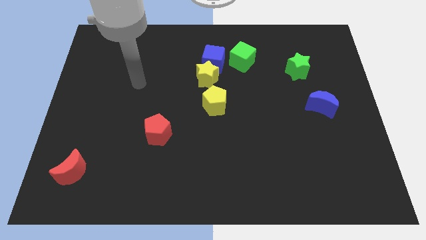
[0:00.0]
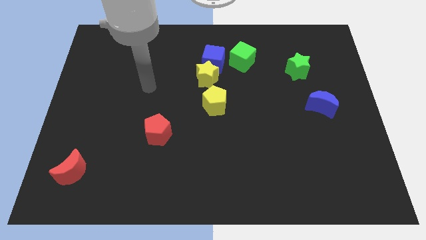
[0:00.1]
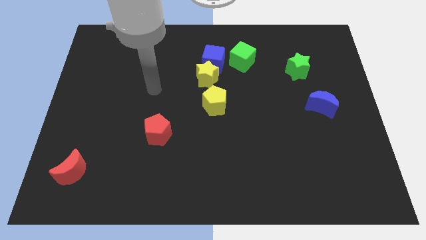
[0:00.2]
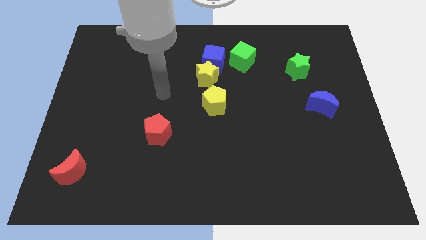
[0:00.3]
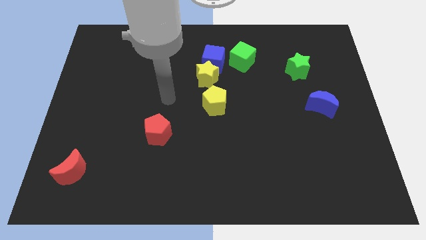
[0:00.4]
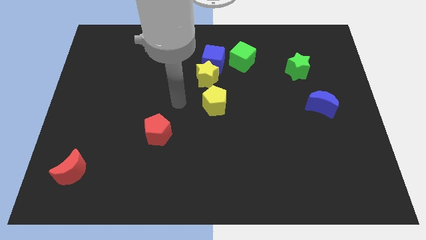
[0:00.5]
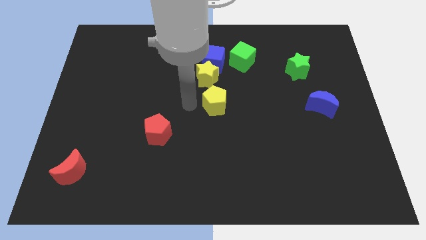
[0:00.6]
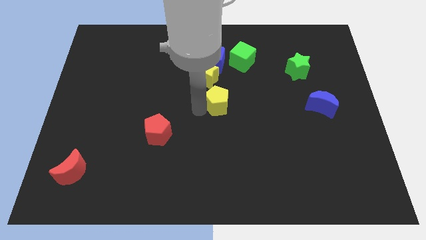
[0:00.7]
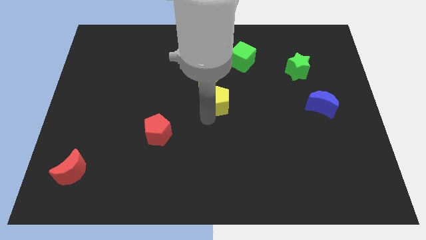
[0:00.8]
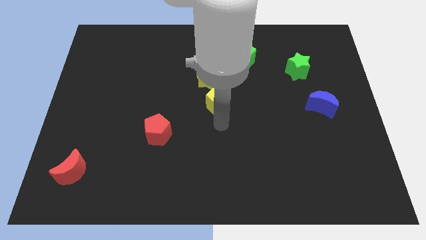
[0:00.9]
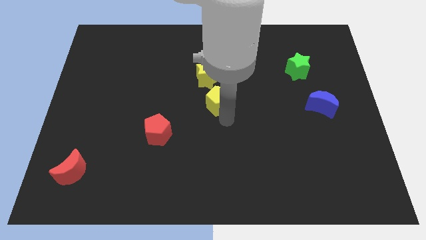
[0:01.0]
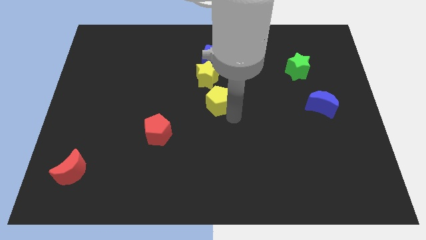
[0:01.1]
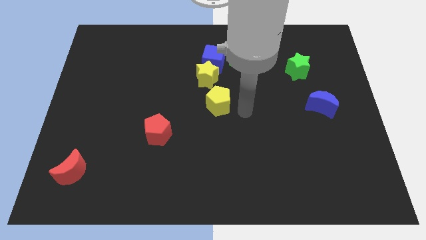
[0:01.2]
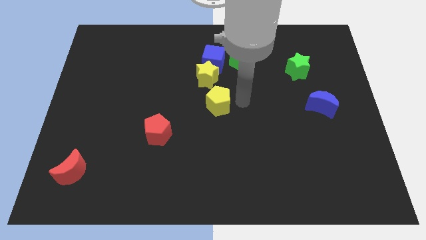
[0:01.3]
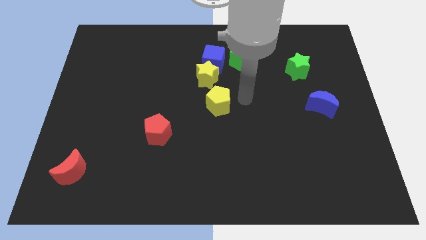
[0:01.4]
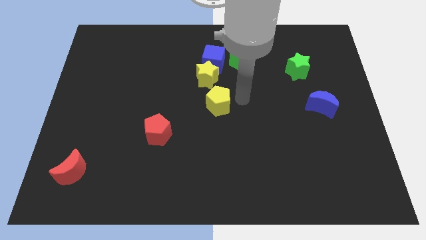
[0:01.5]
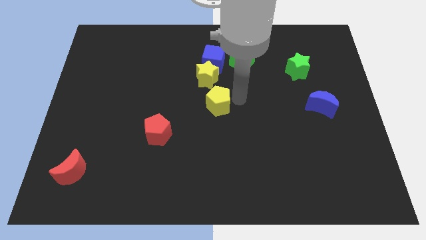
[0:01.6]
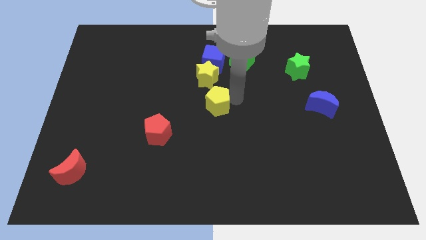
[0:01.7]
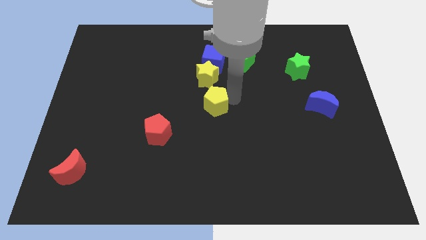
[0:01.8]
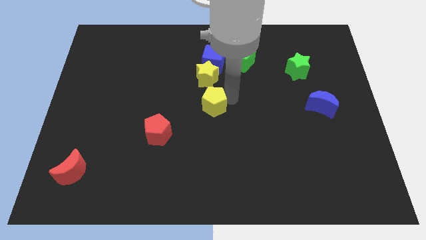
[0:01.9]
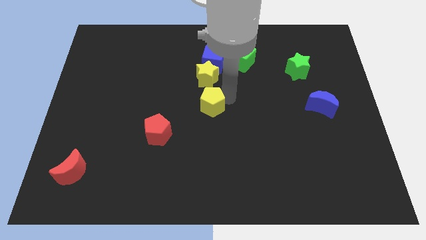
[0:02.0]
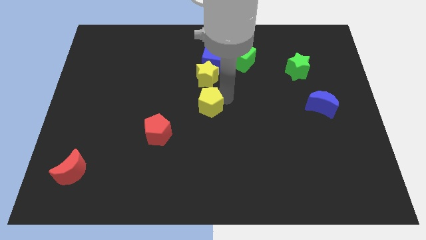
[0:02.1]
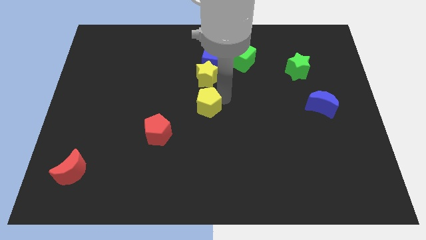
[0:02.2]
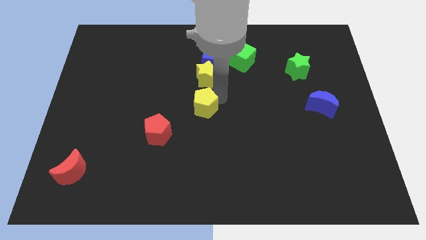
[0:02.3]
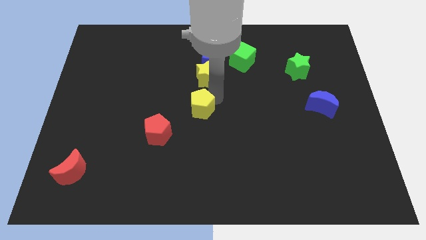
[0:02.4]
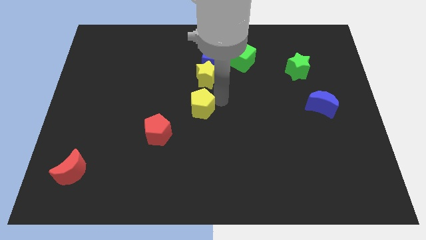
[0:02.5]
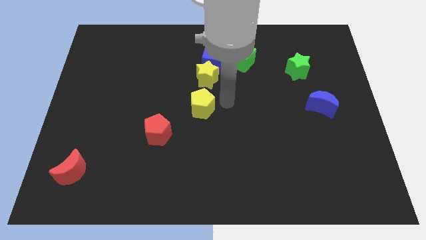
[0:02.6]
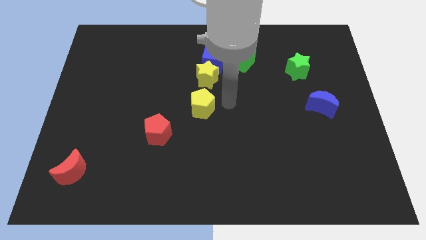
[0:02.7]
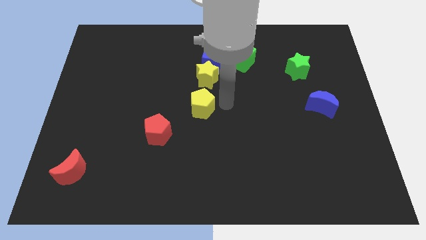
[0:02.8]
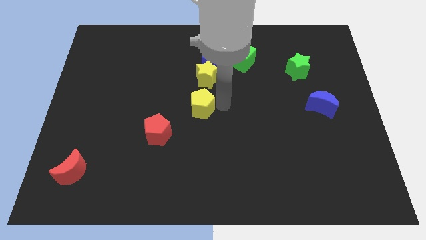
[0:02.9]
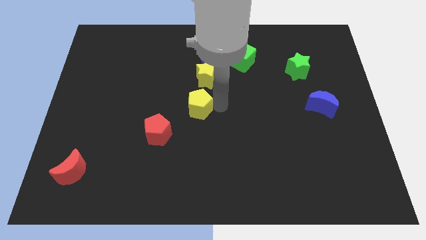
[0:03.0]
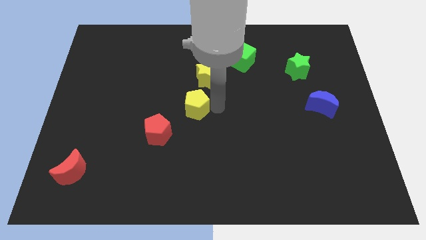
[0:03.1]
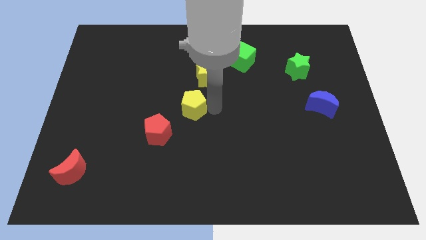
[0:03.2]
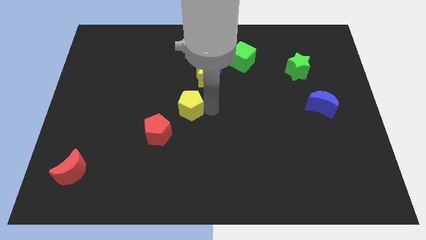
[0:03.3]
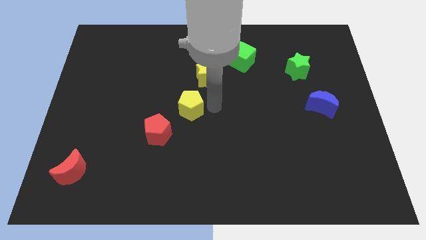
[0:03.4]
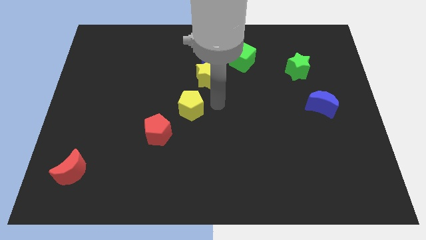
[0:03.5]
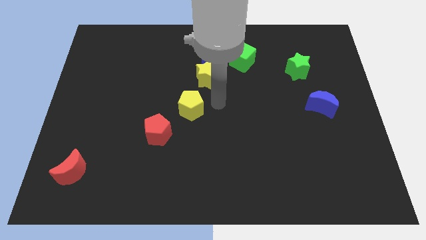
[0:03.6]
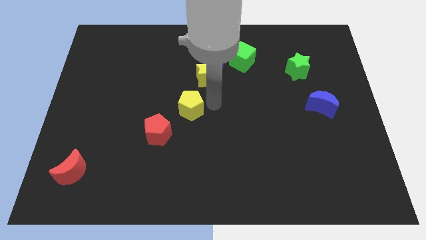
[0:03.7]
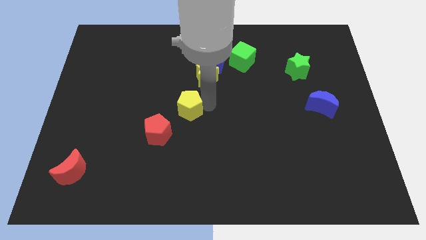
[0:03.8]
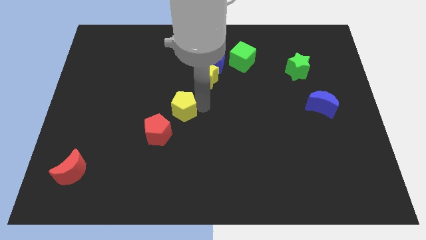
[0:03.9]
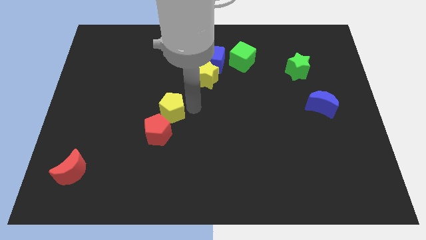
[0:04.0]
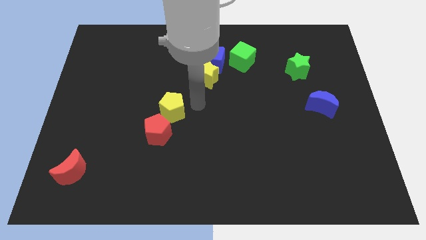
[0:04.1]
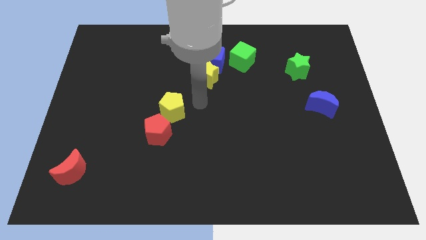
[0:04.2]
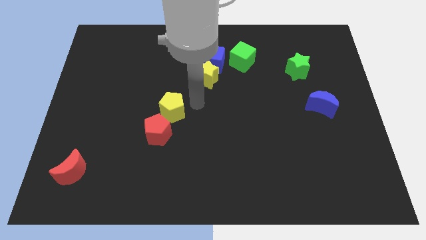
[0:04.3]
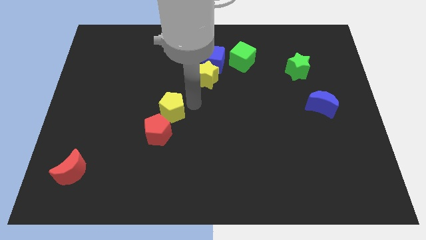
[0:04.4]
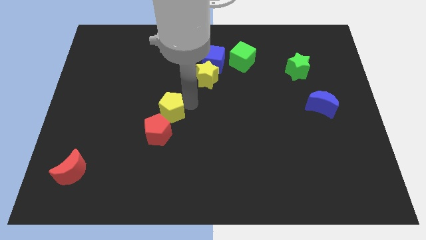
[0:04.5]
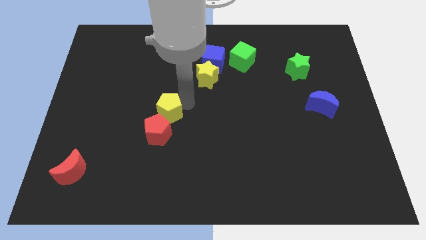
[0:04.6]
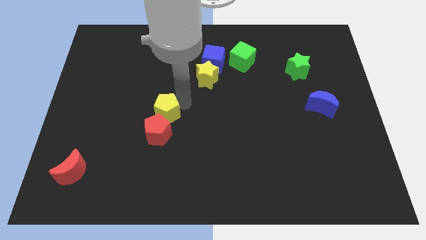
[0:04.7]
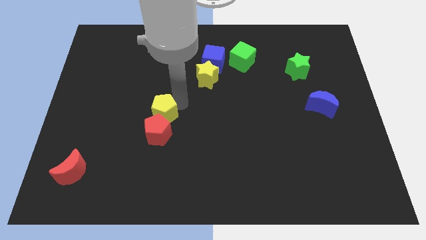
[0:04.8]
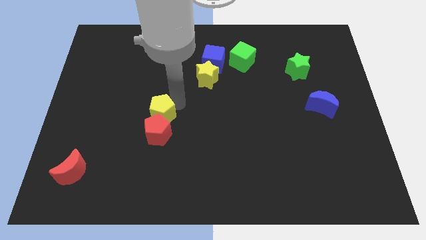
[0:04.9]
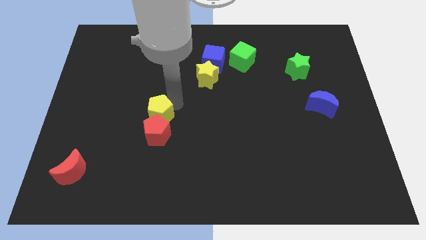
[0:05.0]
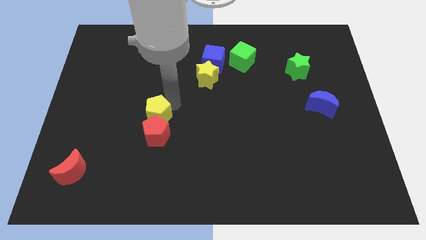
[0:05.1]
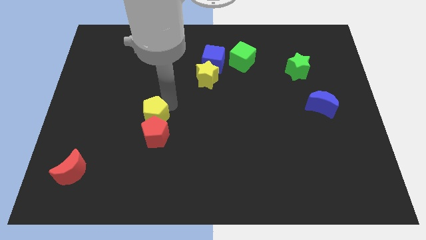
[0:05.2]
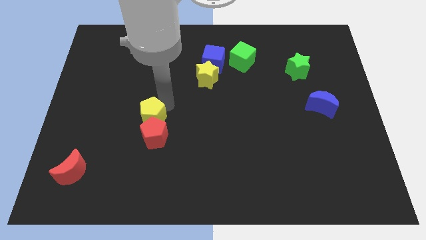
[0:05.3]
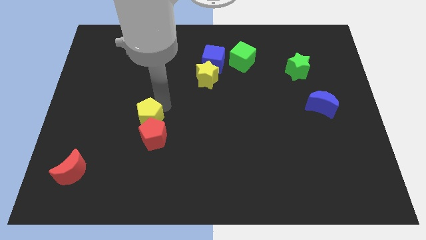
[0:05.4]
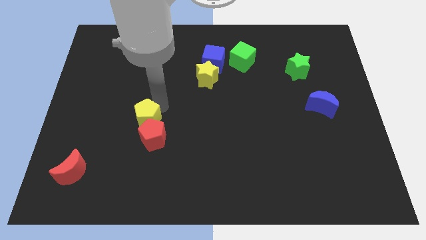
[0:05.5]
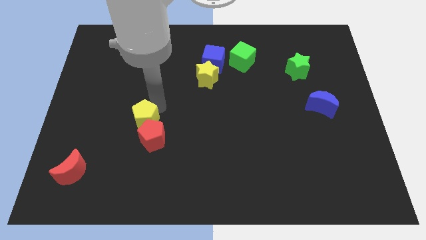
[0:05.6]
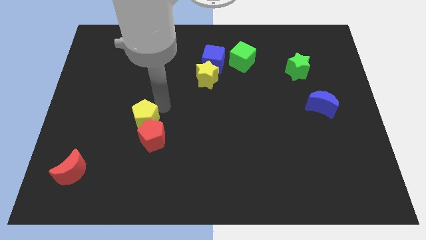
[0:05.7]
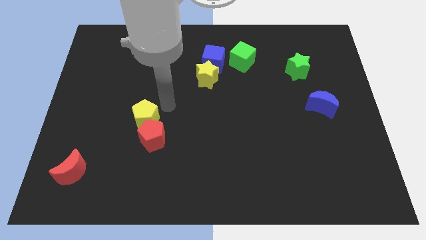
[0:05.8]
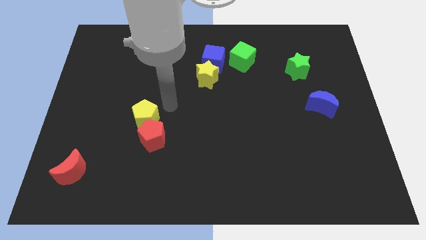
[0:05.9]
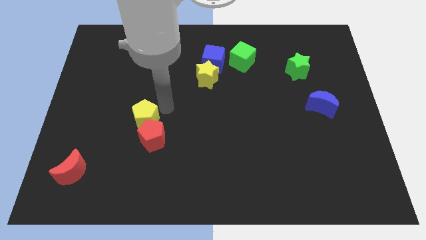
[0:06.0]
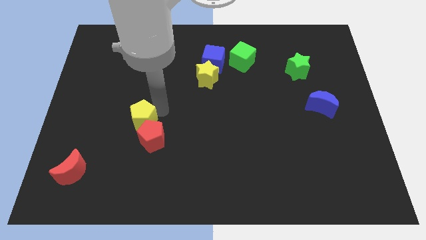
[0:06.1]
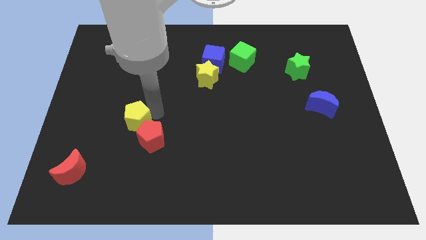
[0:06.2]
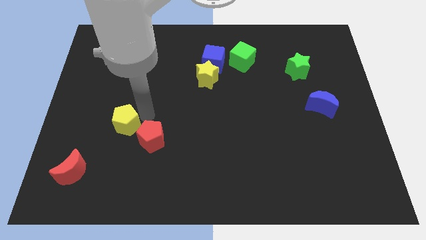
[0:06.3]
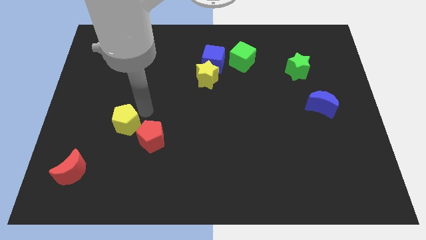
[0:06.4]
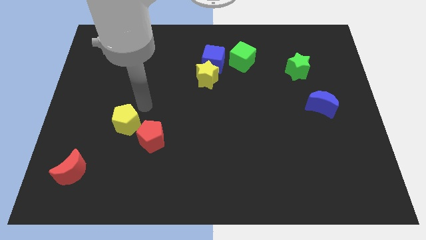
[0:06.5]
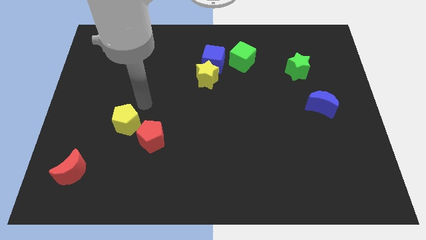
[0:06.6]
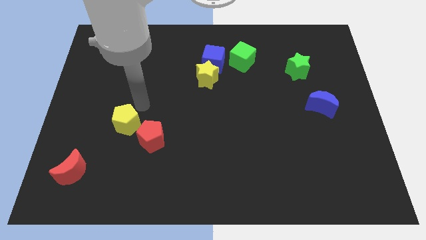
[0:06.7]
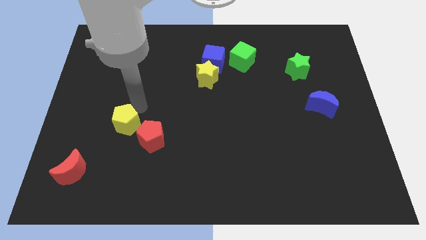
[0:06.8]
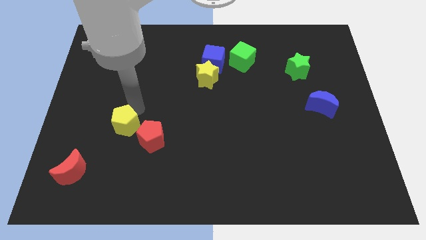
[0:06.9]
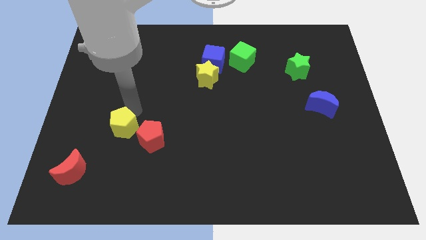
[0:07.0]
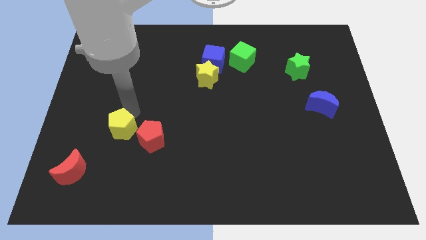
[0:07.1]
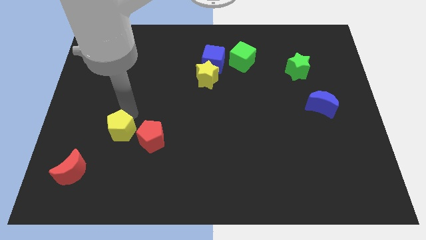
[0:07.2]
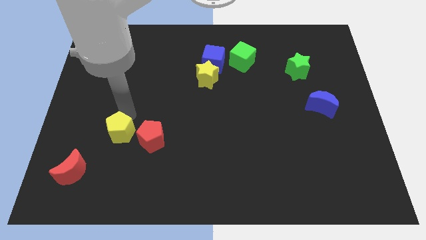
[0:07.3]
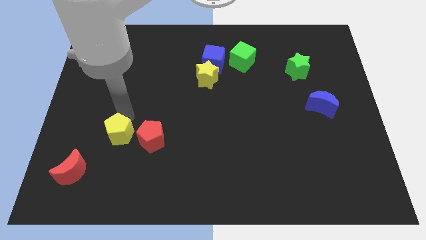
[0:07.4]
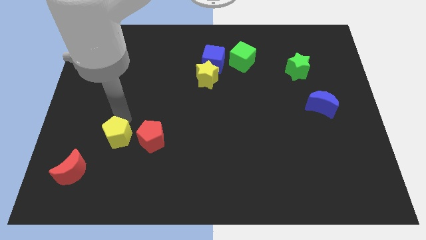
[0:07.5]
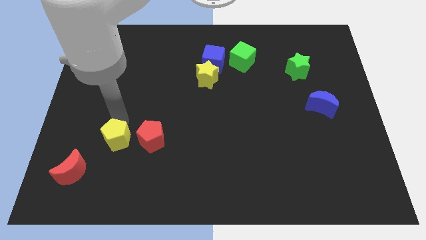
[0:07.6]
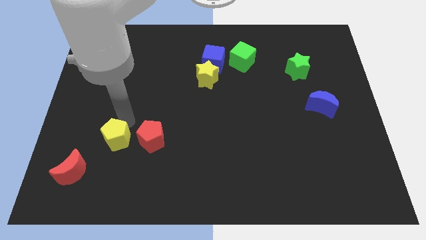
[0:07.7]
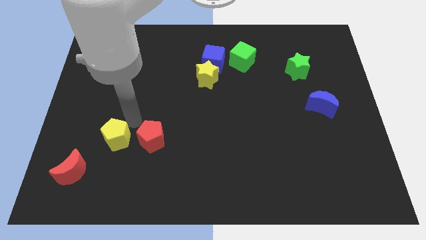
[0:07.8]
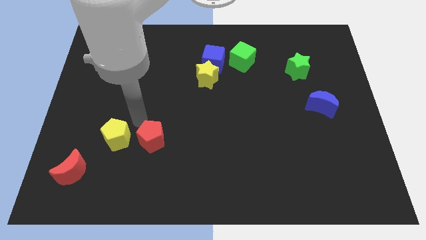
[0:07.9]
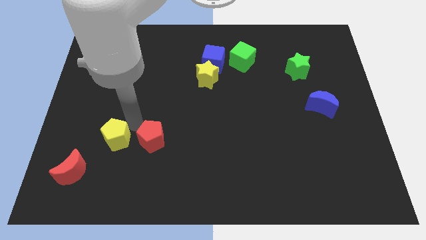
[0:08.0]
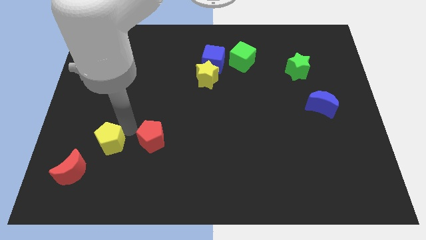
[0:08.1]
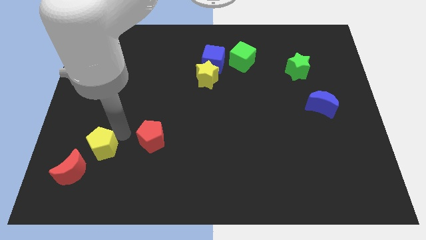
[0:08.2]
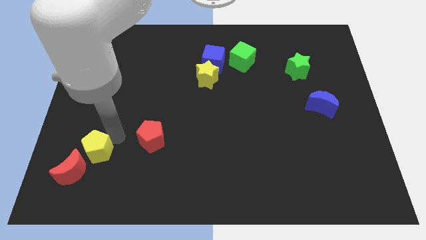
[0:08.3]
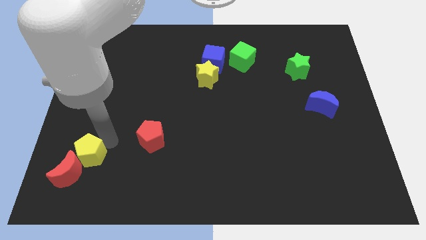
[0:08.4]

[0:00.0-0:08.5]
push the yellow pentagon next to the red moon
